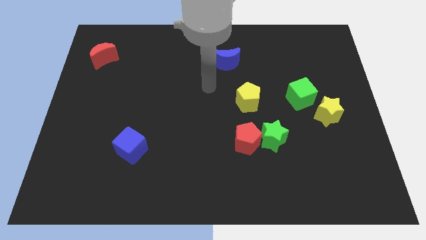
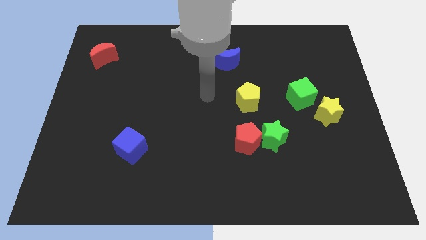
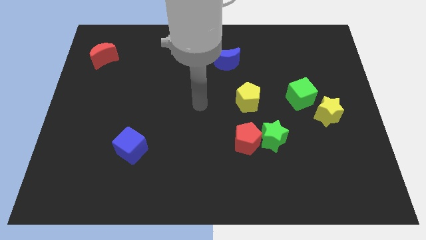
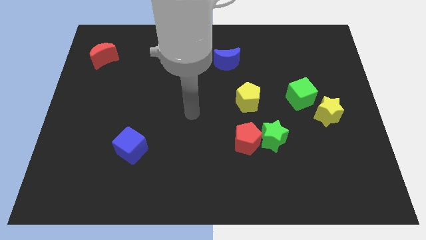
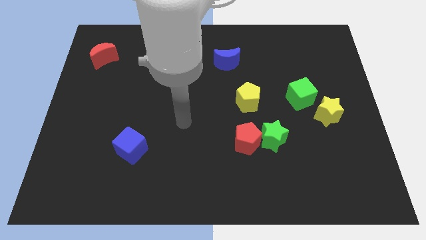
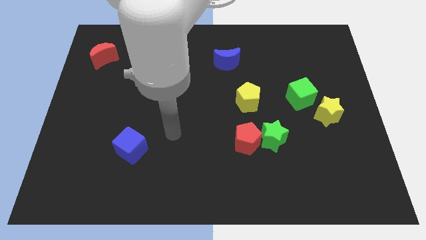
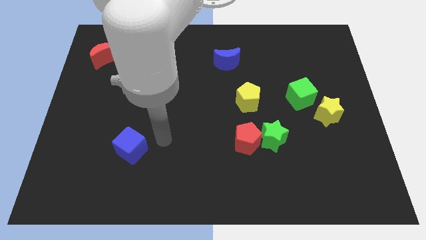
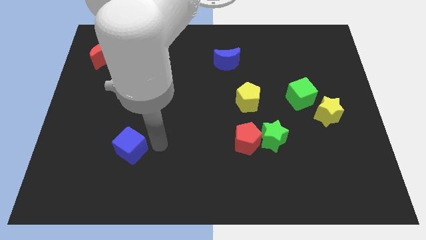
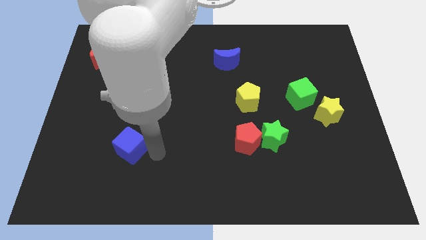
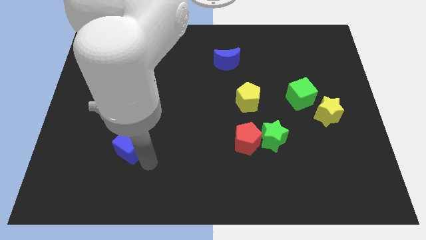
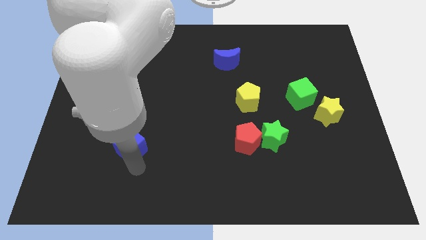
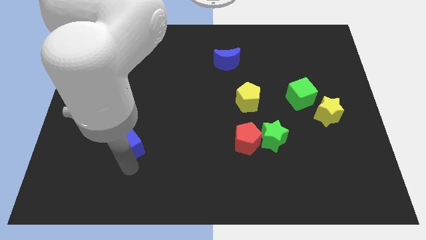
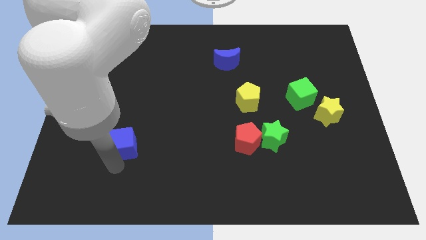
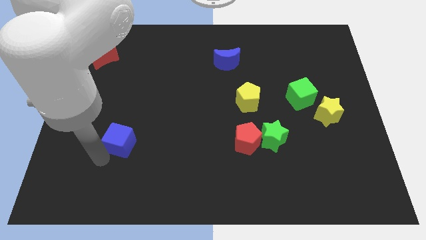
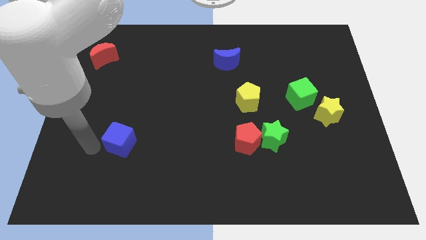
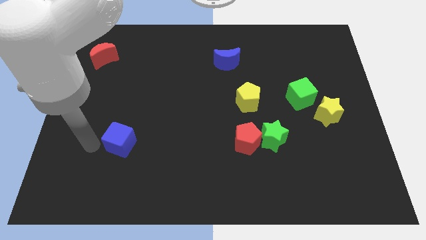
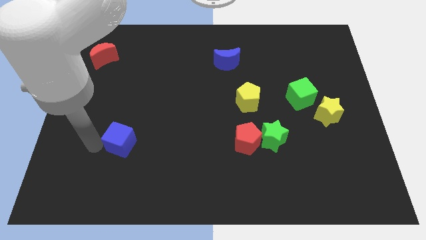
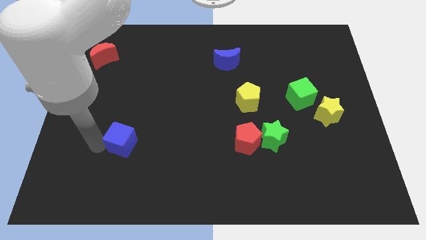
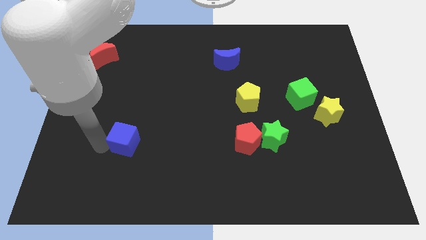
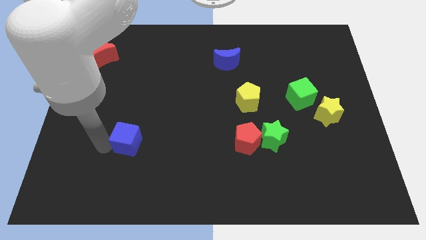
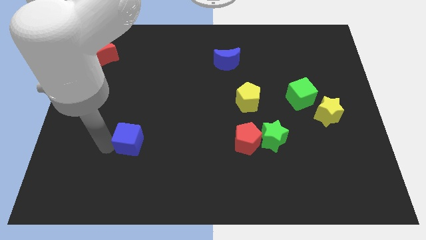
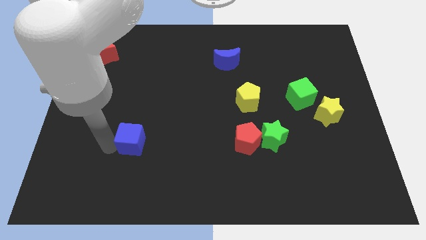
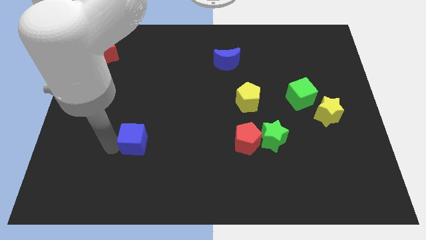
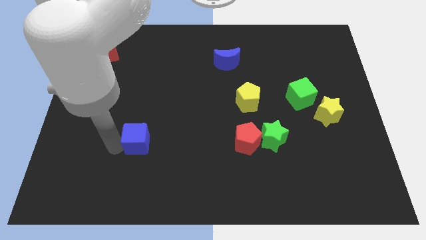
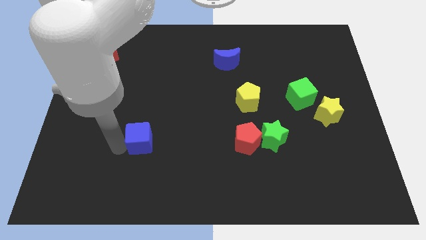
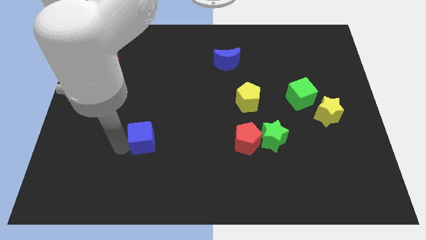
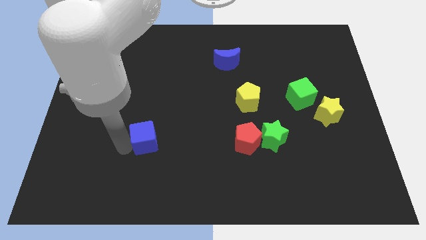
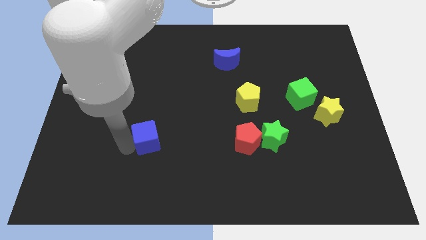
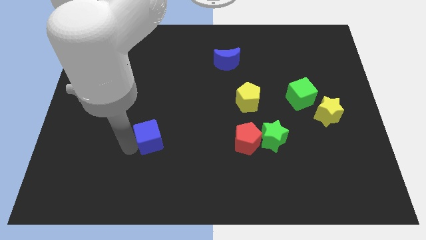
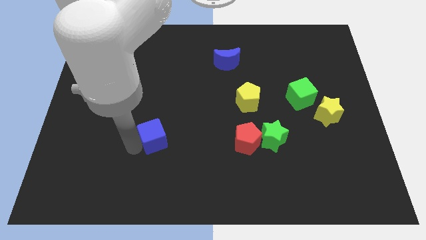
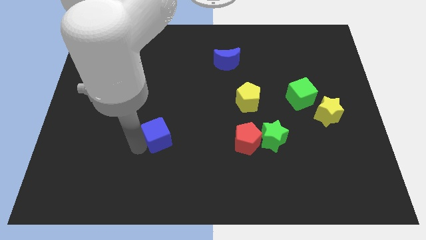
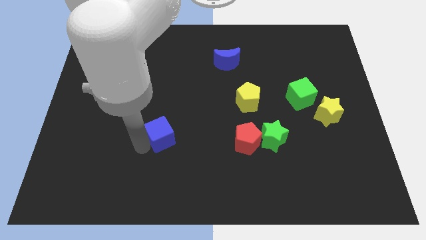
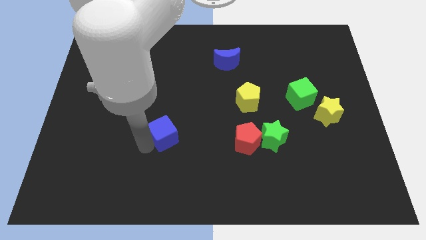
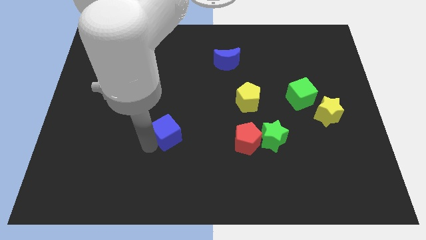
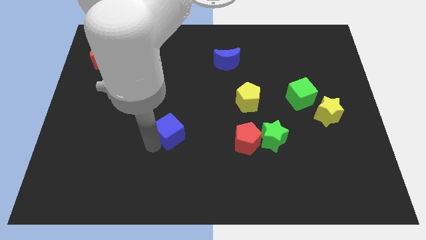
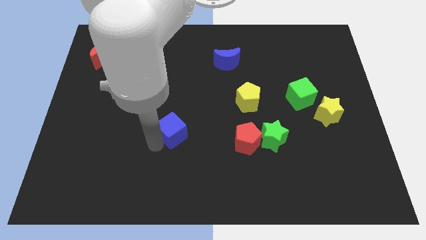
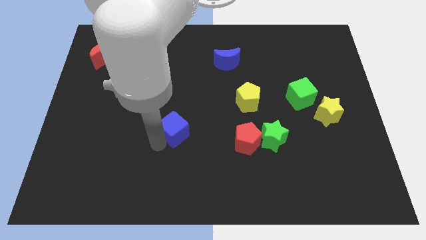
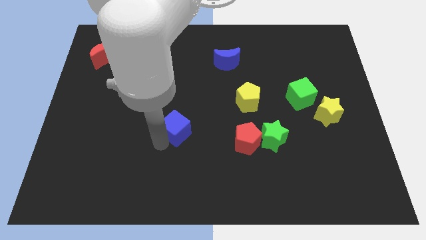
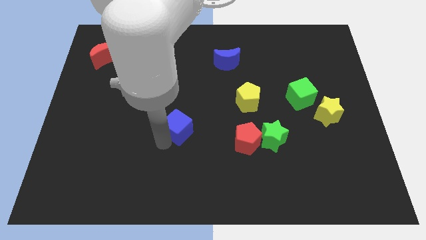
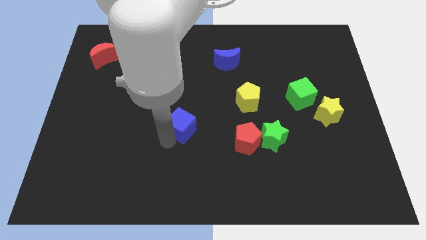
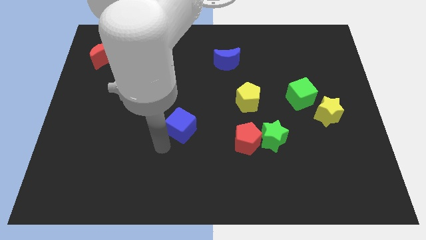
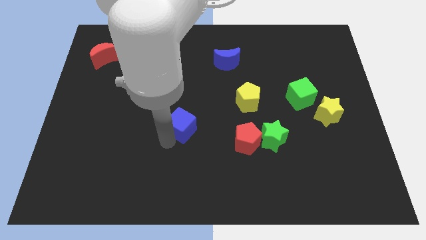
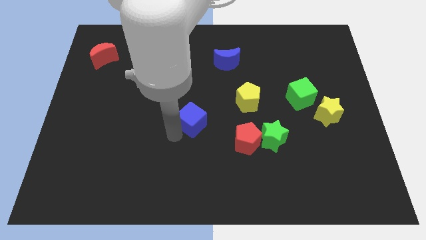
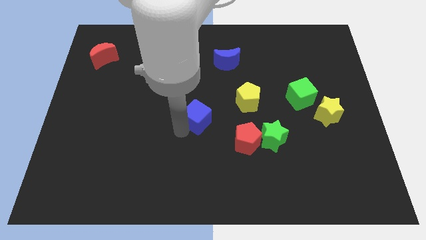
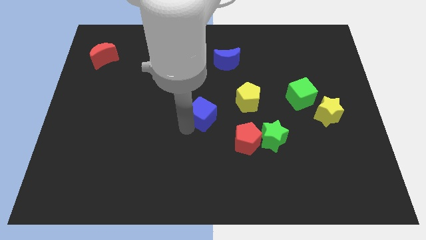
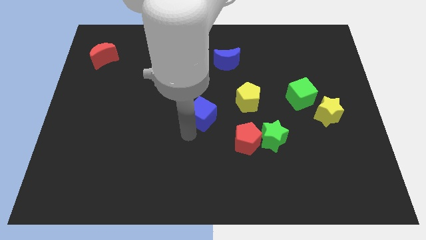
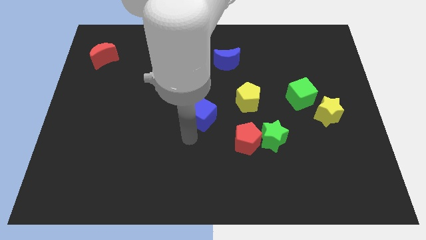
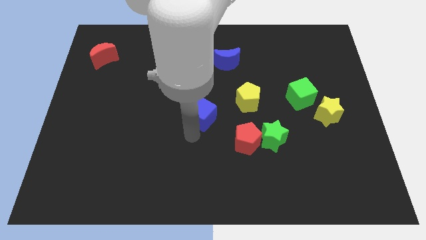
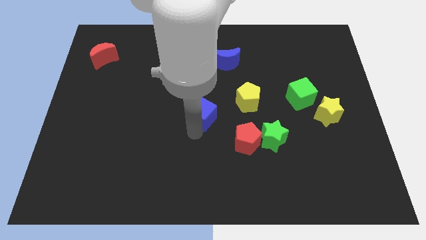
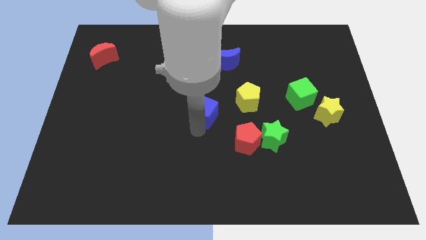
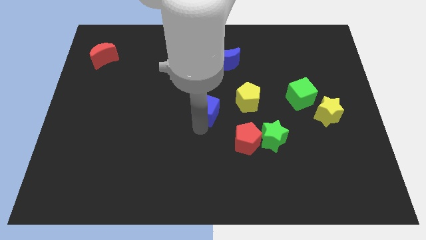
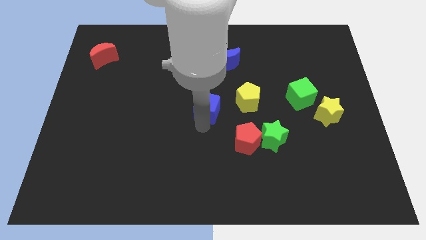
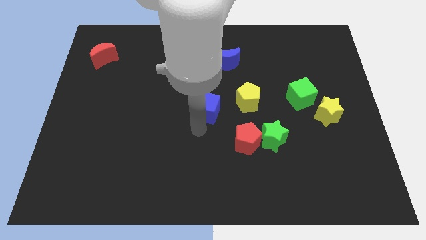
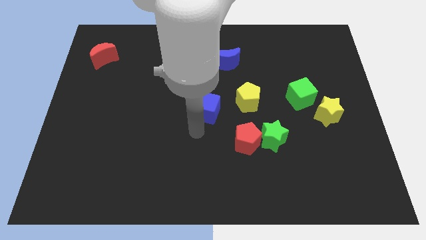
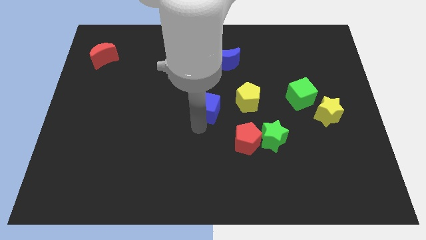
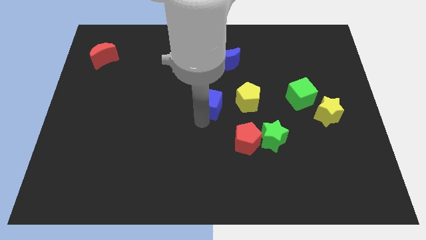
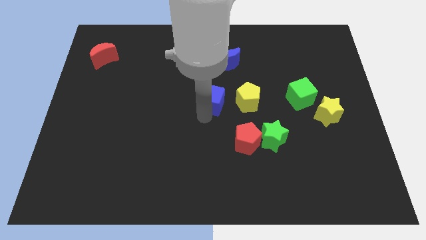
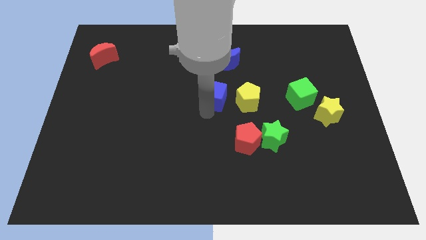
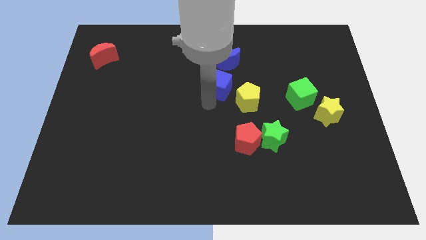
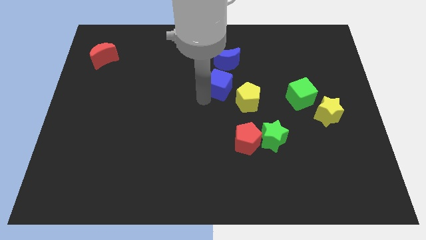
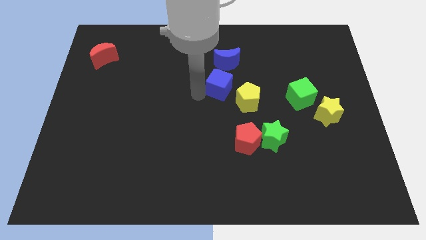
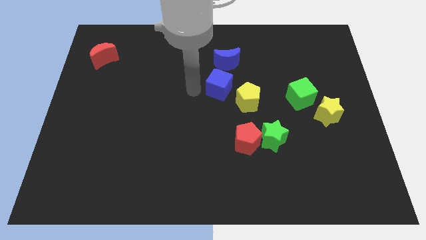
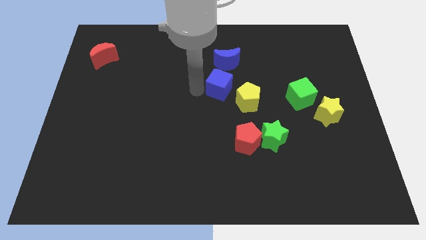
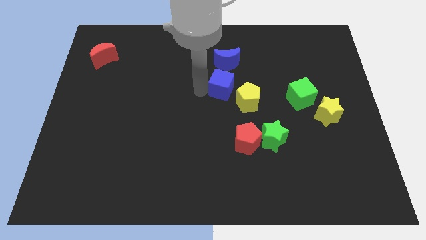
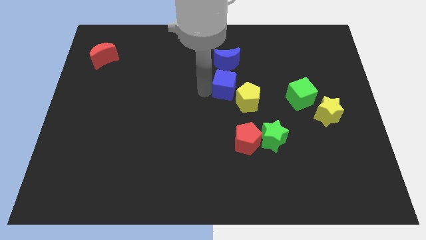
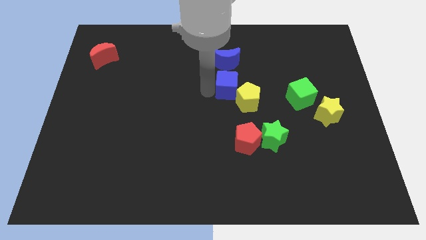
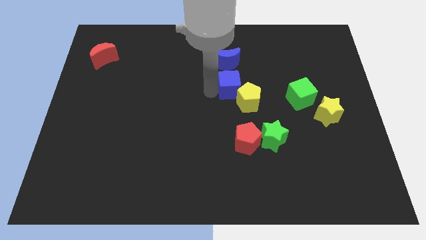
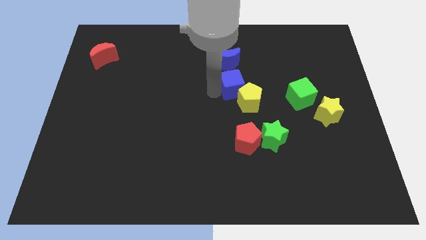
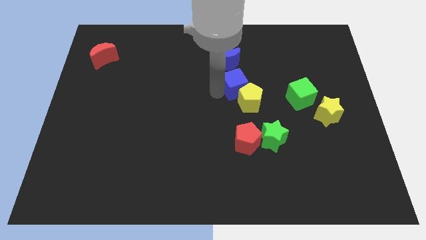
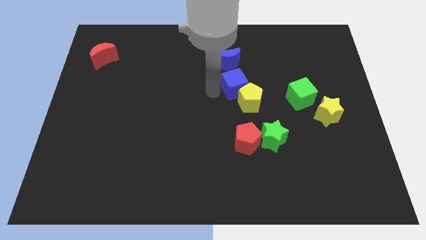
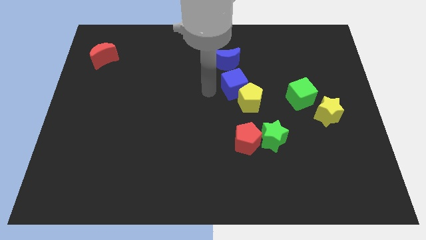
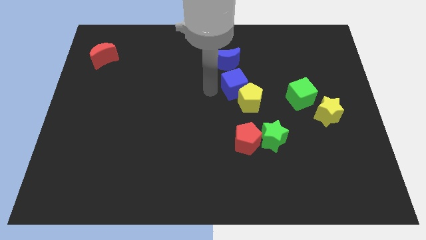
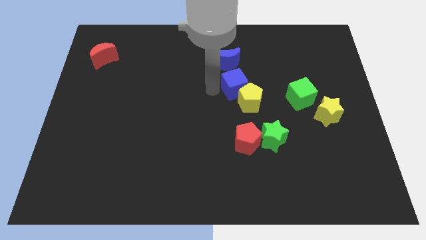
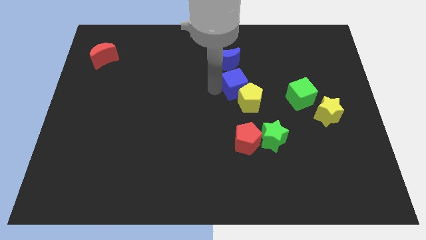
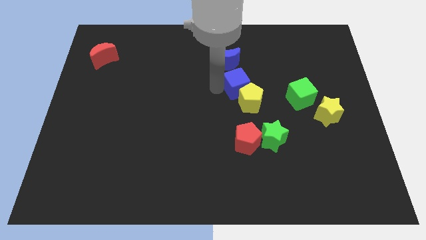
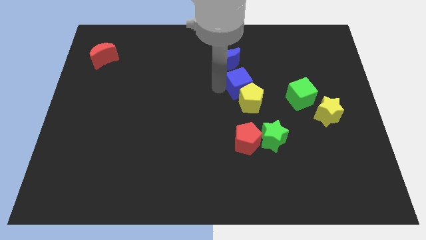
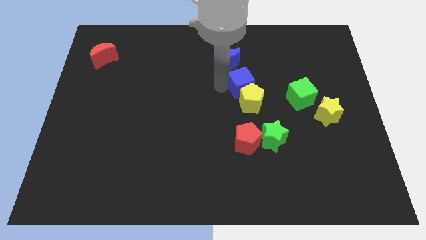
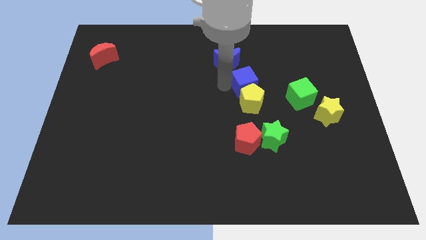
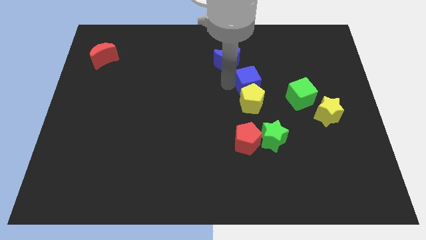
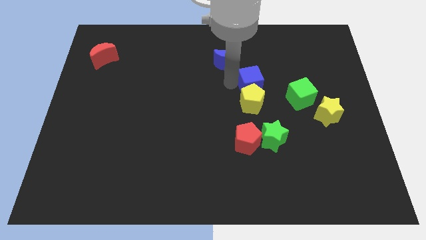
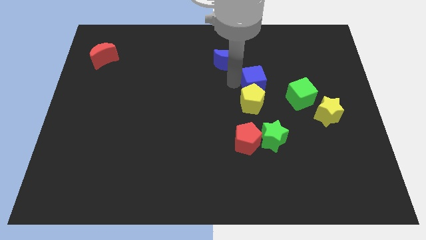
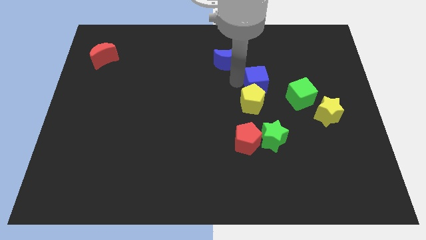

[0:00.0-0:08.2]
slide the blue cube diagonally up and to the left of the green cube
